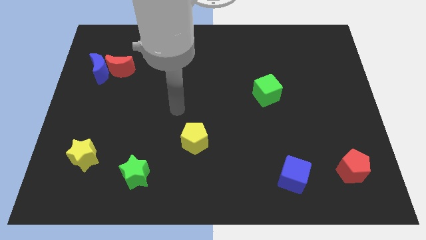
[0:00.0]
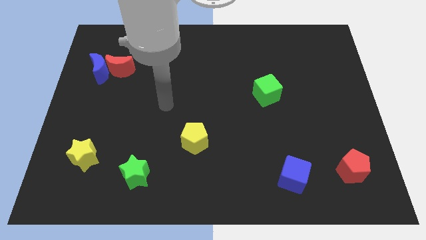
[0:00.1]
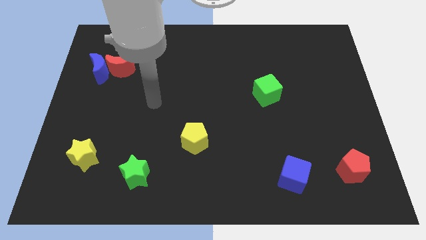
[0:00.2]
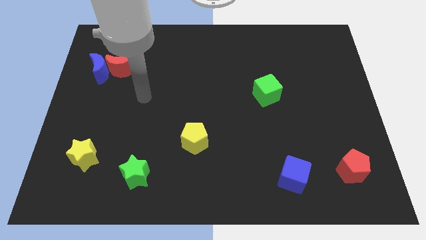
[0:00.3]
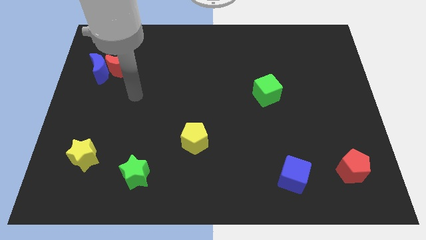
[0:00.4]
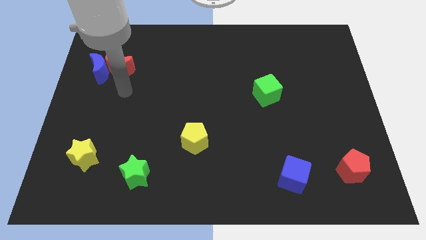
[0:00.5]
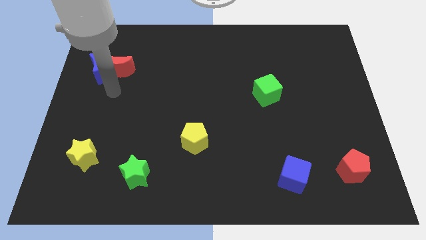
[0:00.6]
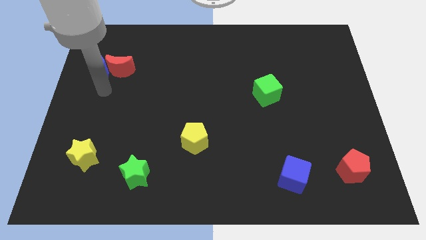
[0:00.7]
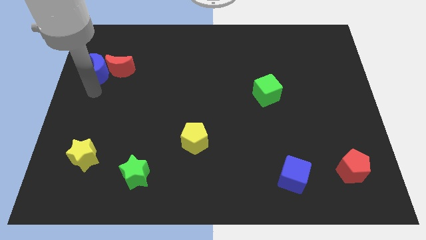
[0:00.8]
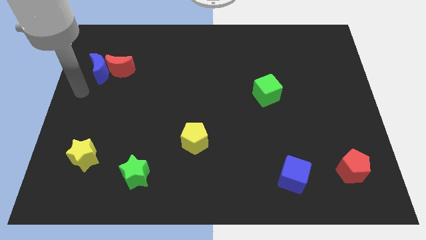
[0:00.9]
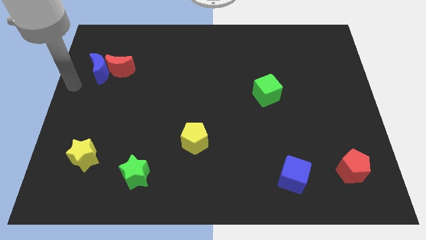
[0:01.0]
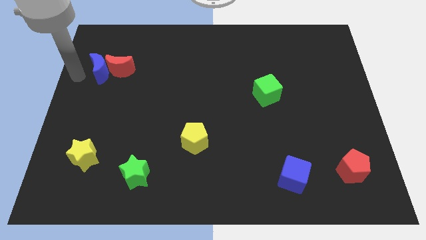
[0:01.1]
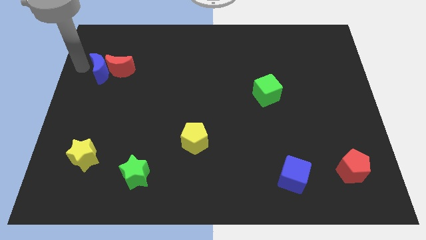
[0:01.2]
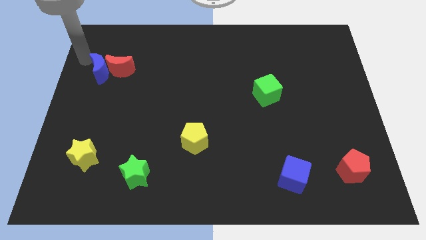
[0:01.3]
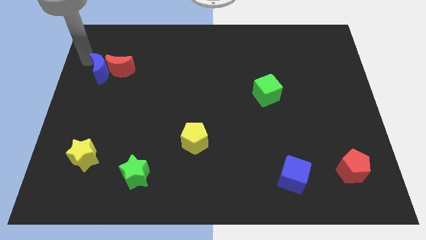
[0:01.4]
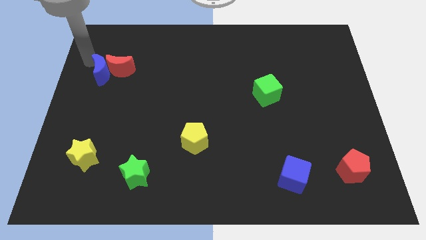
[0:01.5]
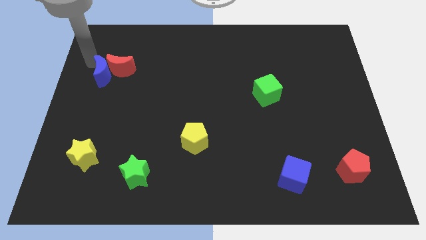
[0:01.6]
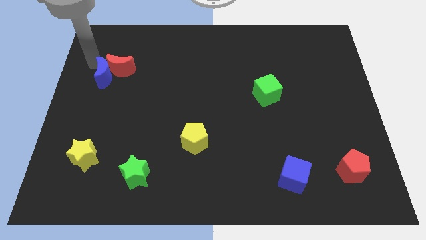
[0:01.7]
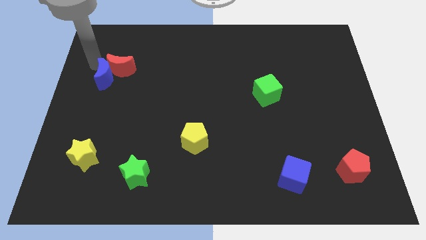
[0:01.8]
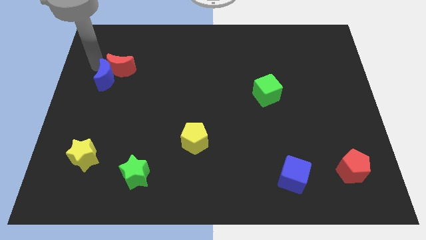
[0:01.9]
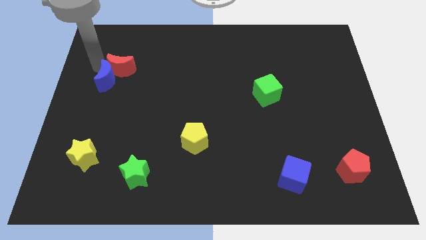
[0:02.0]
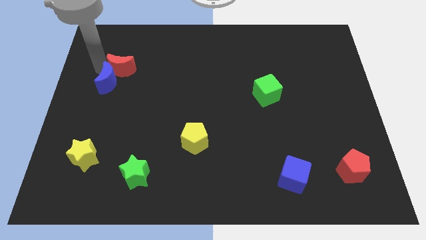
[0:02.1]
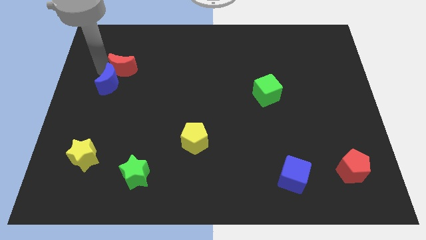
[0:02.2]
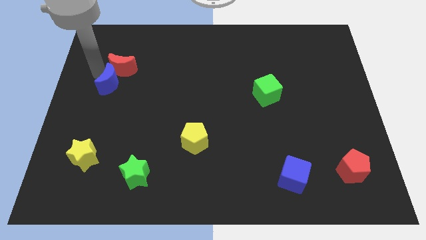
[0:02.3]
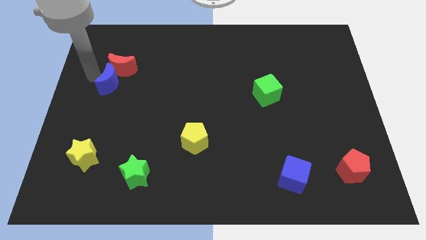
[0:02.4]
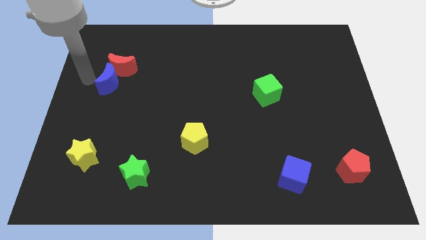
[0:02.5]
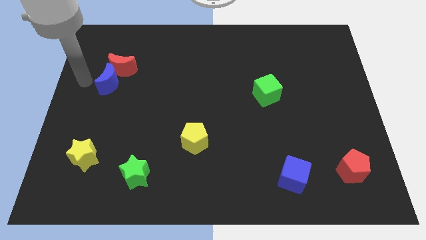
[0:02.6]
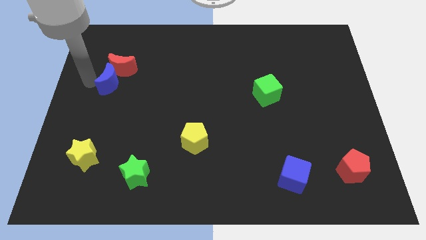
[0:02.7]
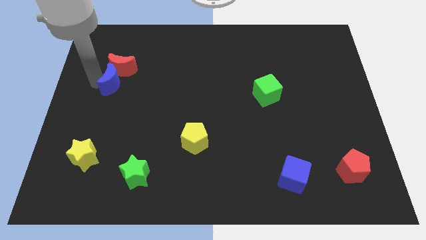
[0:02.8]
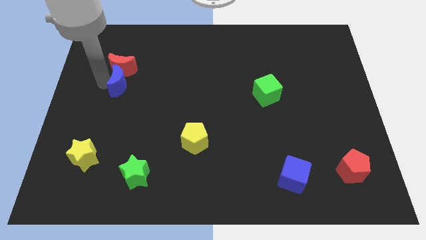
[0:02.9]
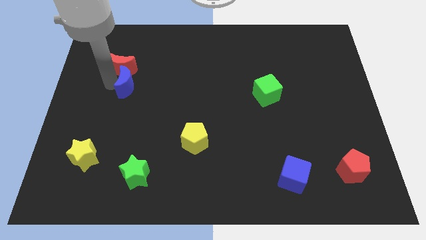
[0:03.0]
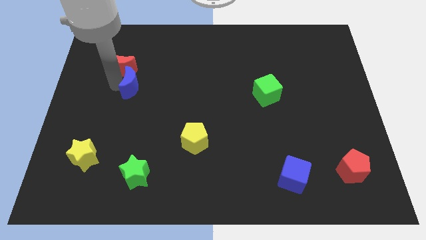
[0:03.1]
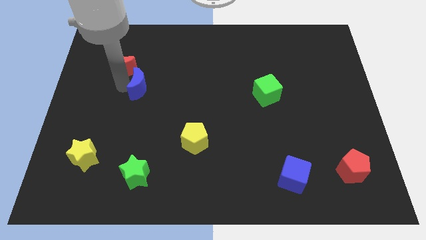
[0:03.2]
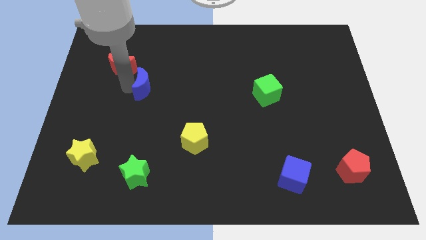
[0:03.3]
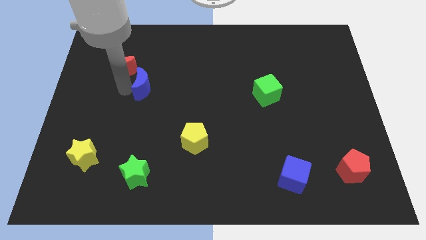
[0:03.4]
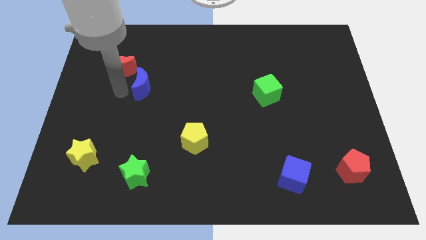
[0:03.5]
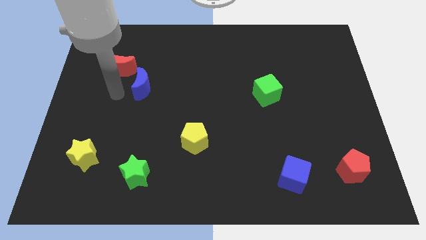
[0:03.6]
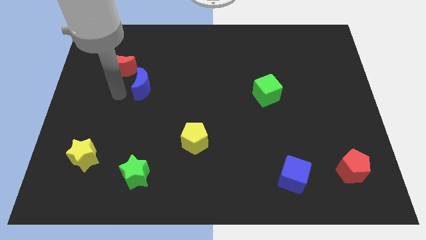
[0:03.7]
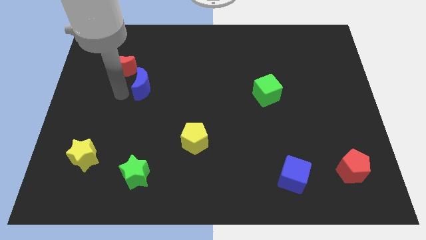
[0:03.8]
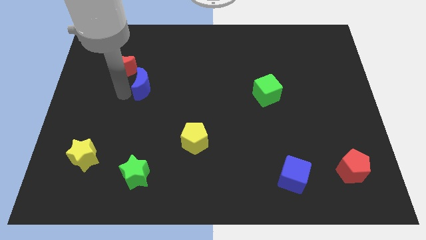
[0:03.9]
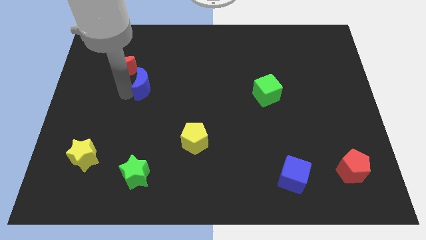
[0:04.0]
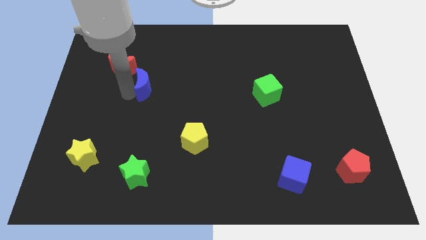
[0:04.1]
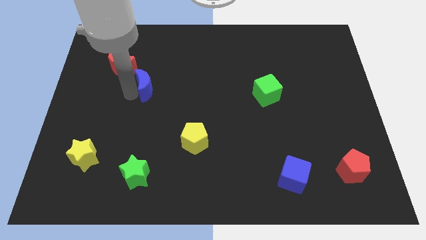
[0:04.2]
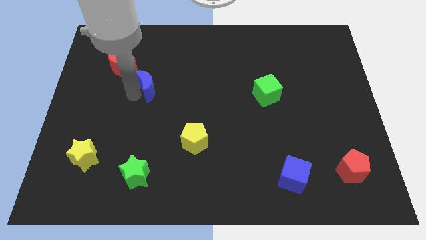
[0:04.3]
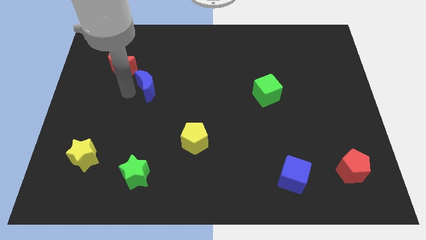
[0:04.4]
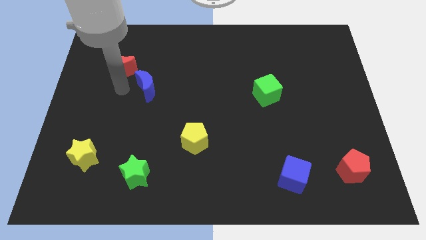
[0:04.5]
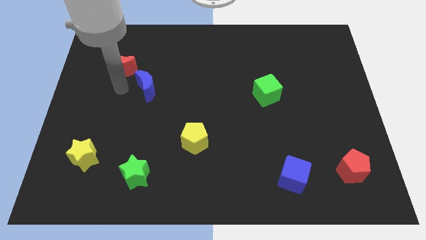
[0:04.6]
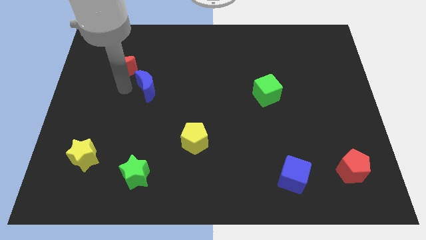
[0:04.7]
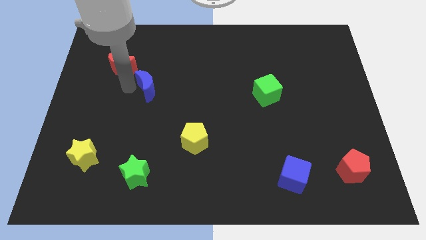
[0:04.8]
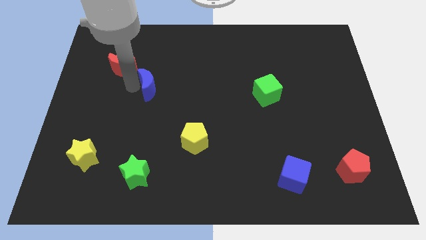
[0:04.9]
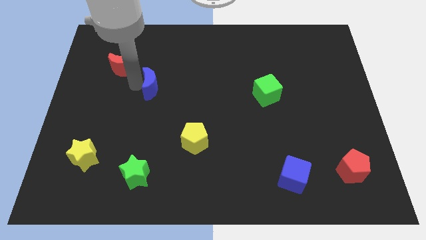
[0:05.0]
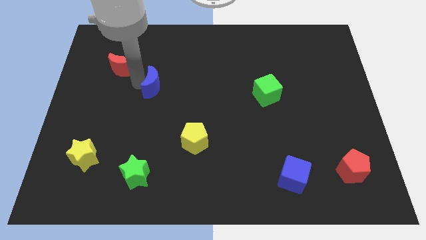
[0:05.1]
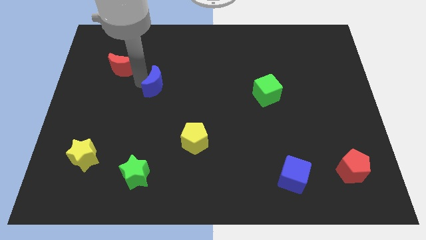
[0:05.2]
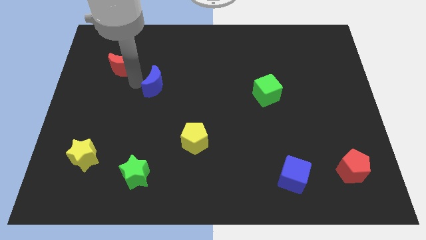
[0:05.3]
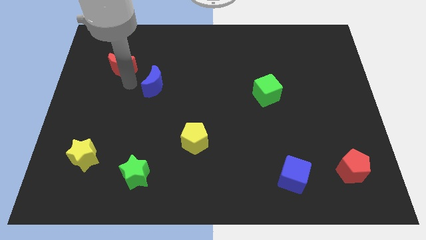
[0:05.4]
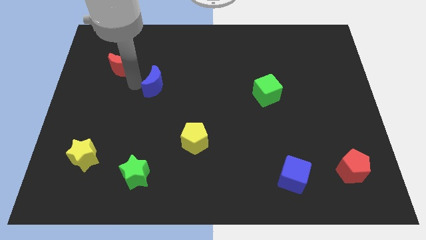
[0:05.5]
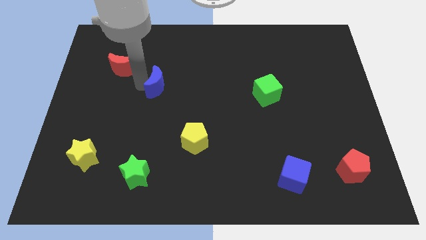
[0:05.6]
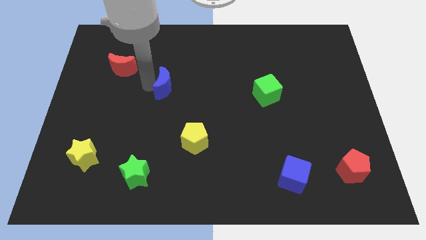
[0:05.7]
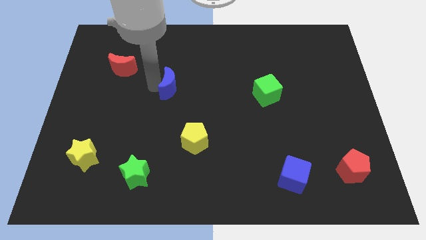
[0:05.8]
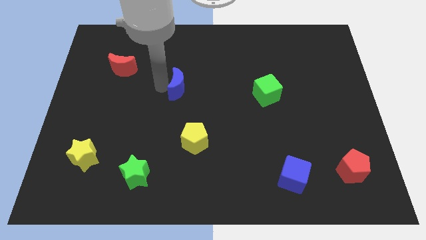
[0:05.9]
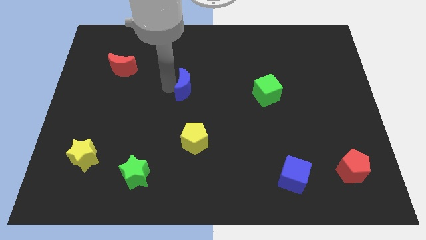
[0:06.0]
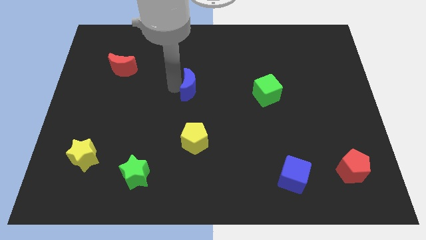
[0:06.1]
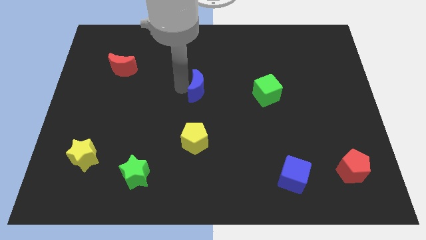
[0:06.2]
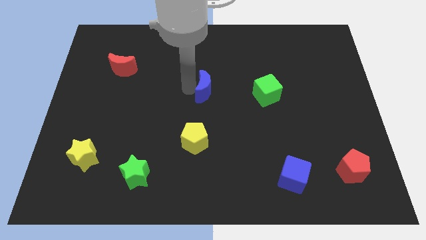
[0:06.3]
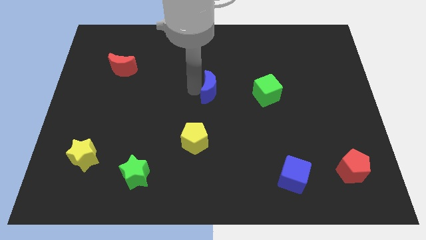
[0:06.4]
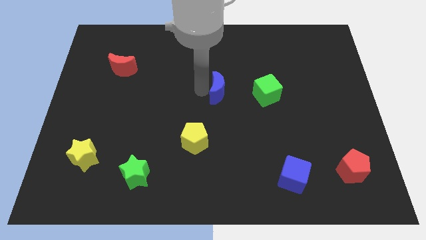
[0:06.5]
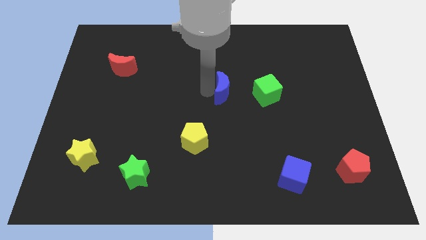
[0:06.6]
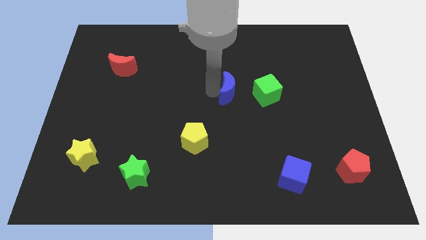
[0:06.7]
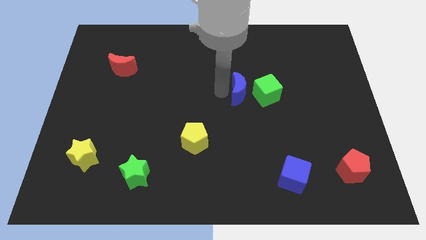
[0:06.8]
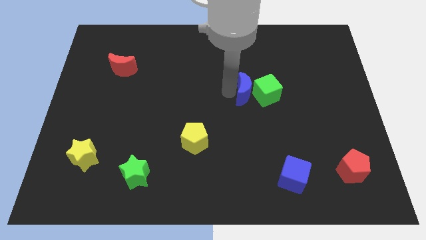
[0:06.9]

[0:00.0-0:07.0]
put the blue moon towards the green cube
